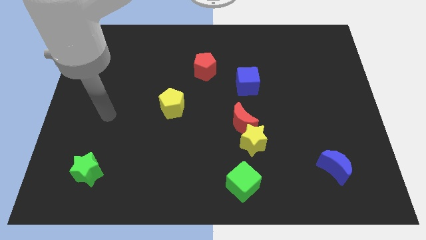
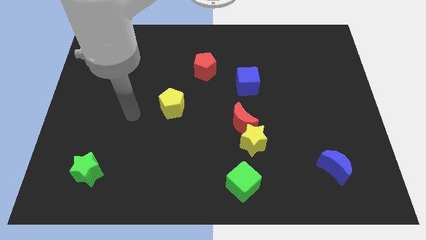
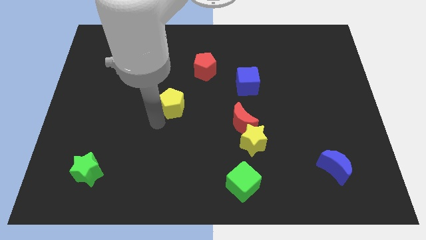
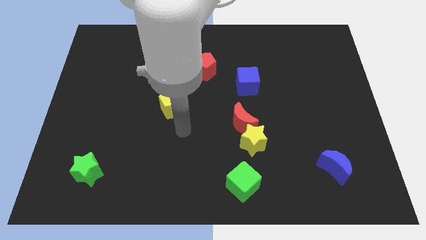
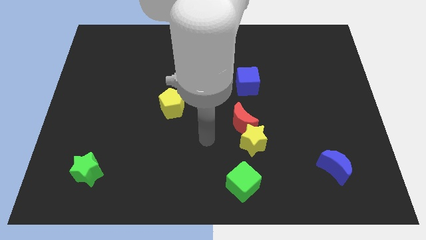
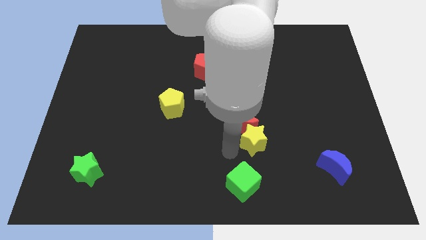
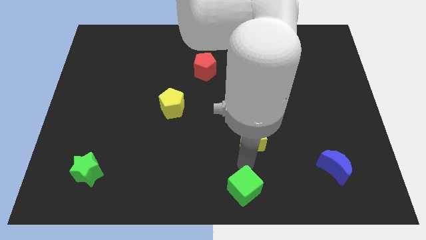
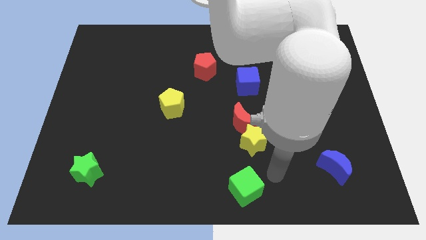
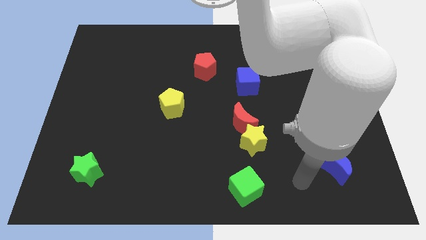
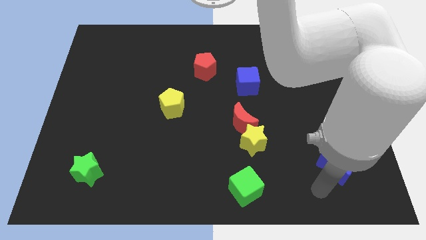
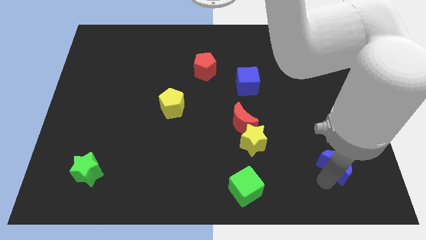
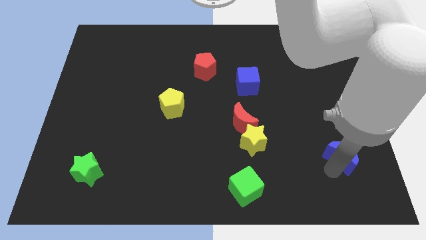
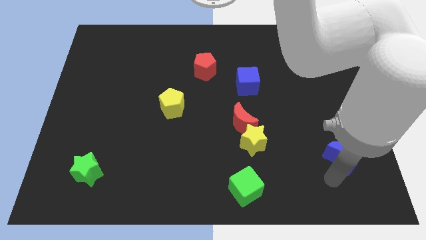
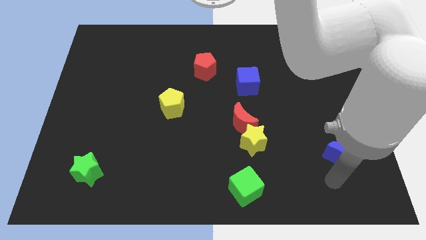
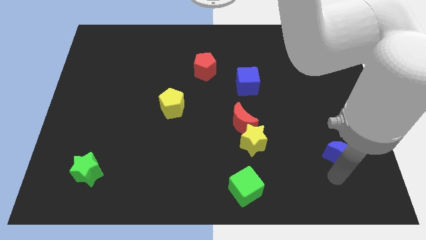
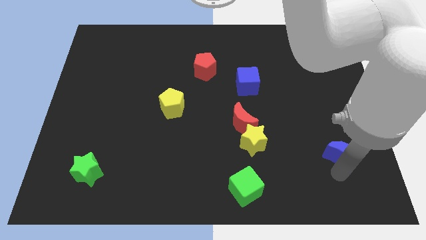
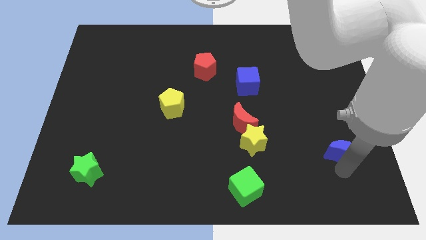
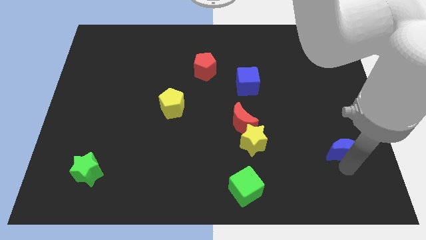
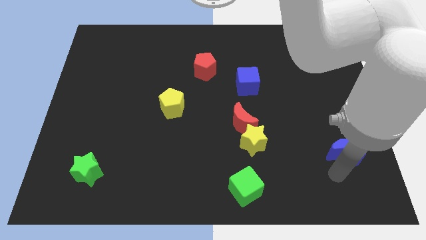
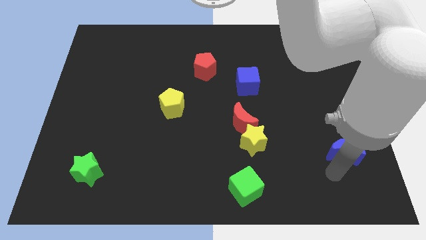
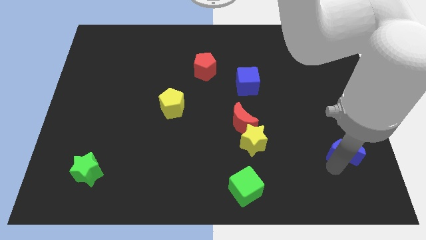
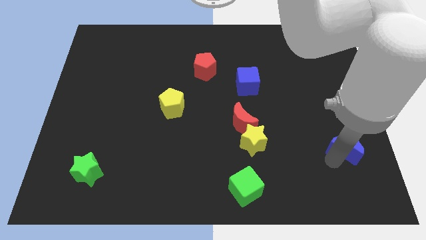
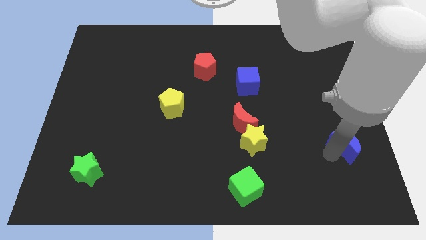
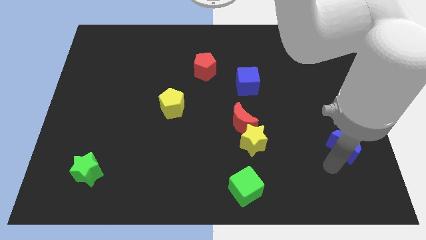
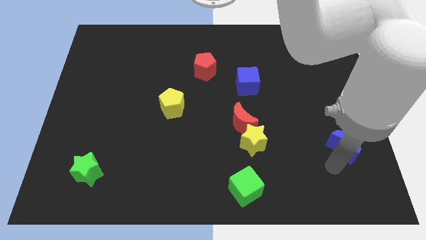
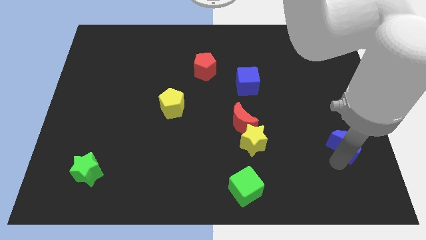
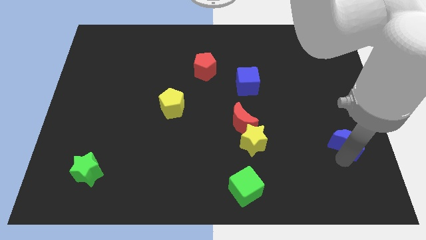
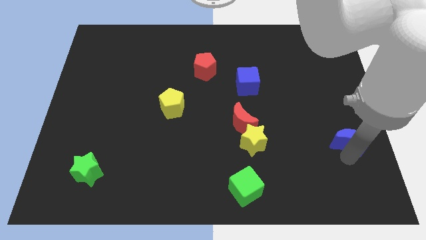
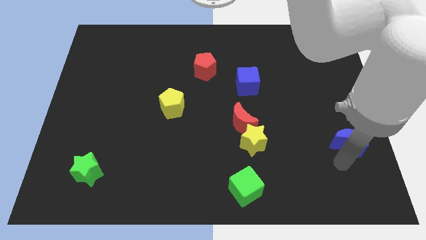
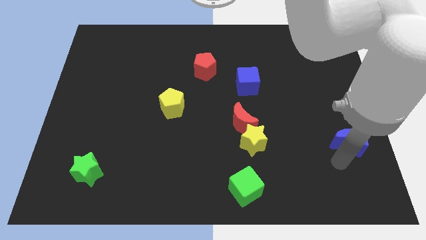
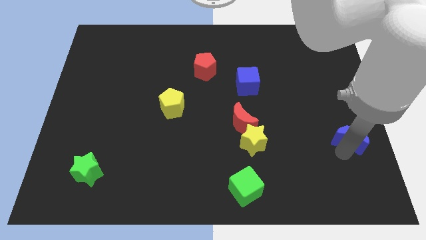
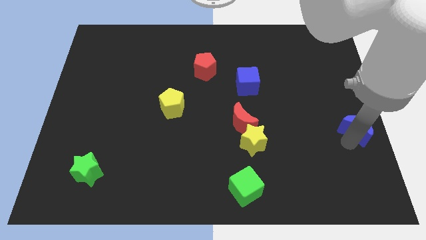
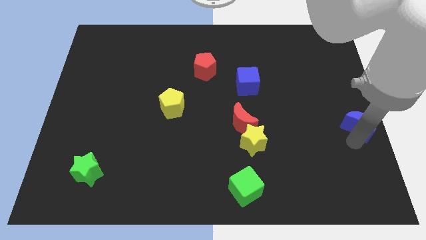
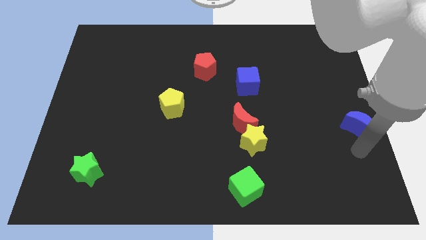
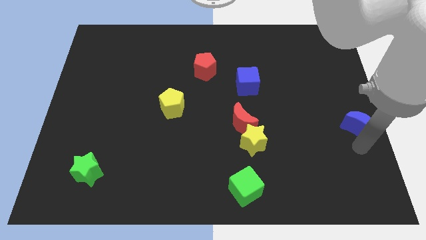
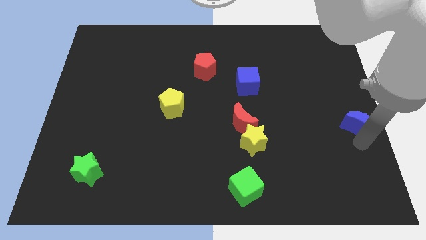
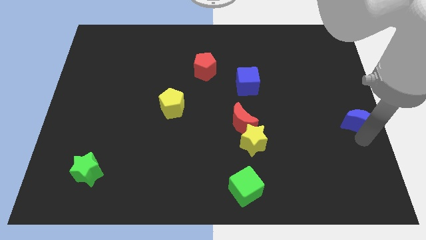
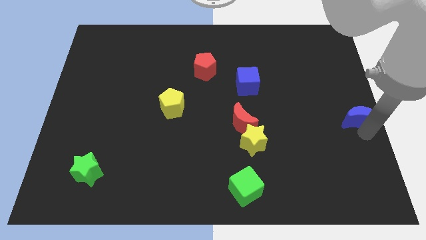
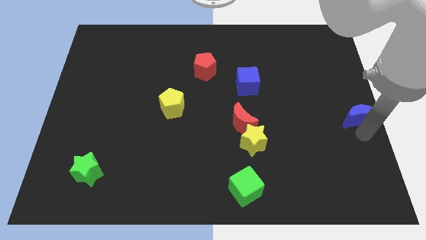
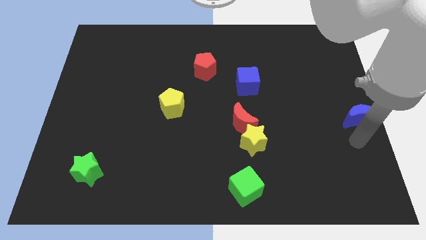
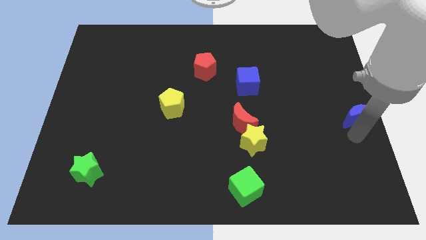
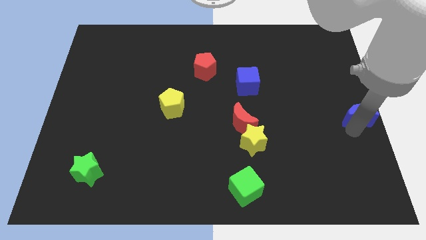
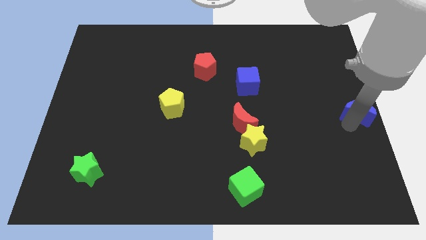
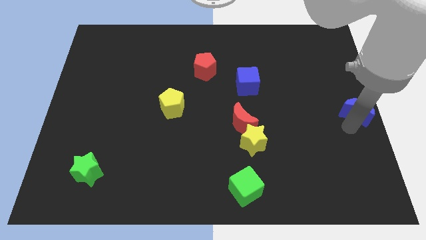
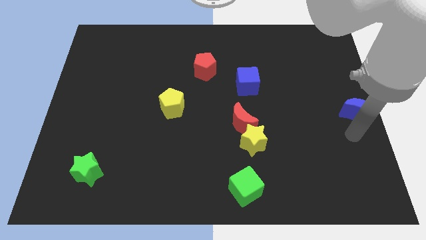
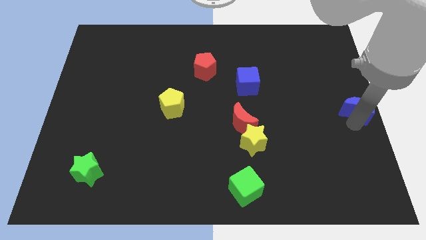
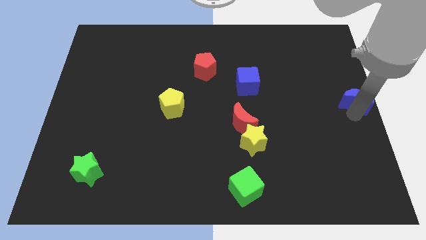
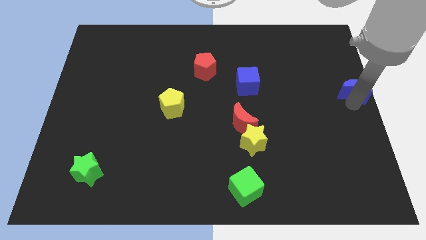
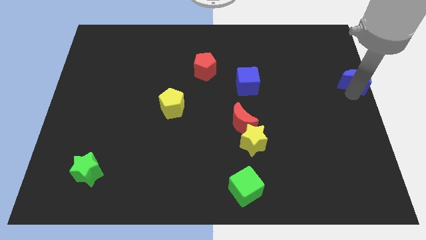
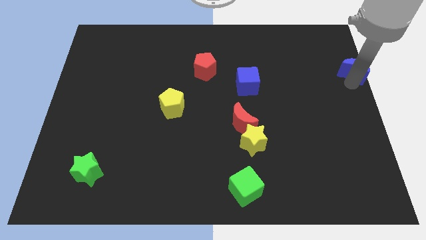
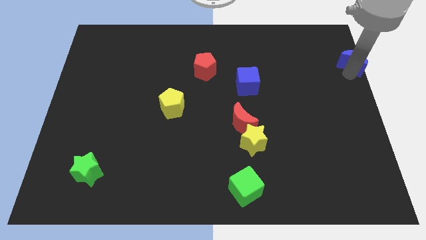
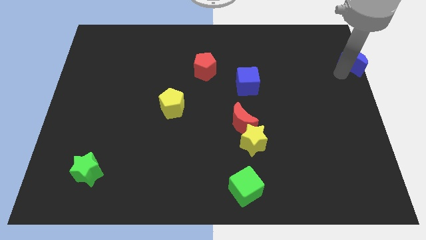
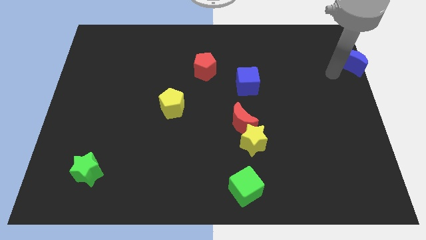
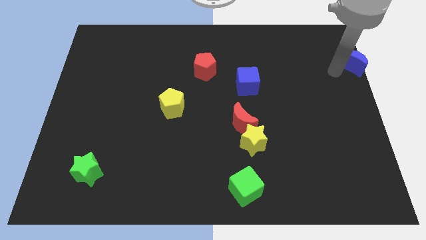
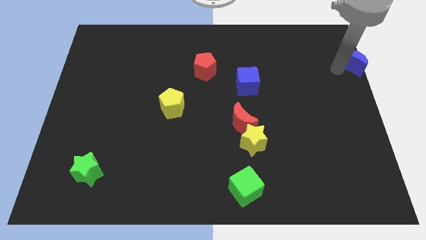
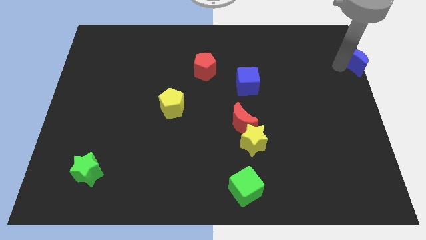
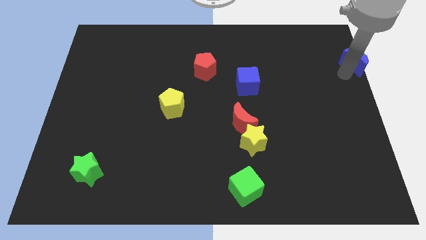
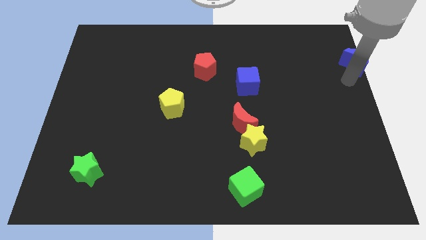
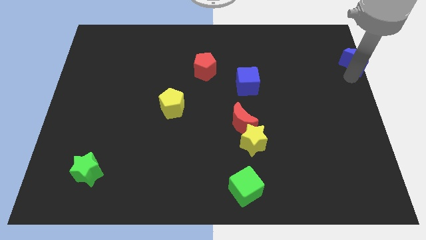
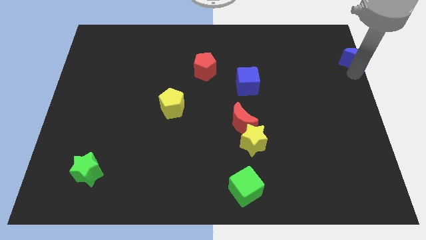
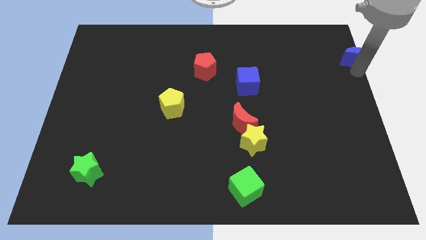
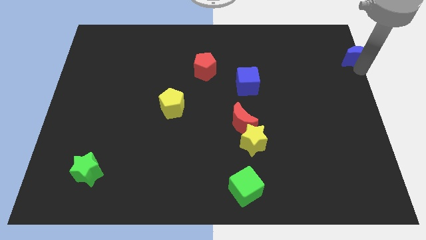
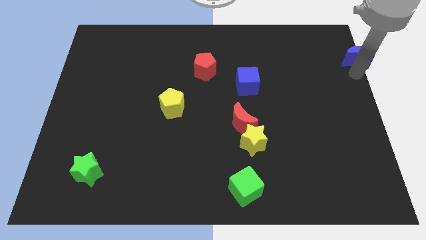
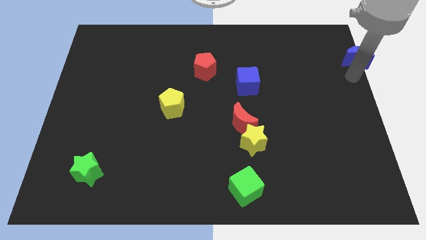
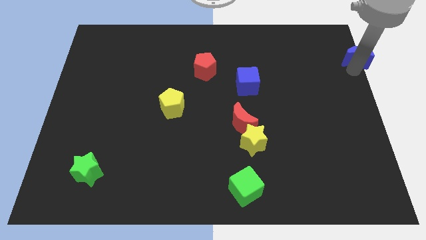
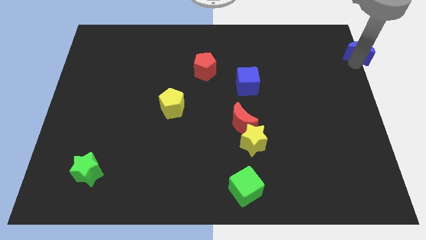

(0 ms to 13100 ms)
put the blue moon to the top right
